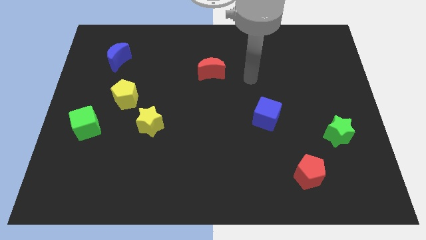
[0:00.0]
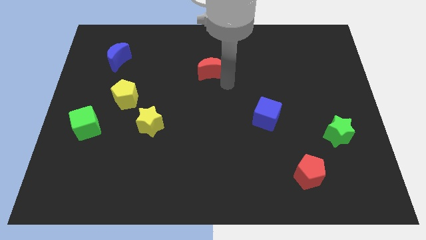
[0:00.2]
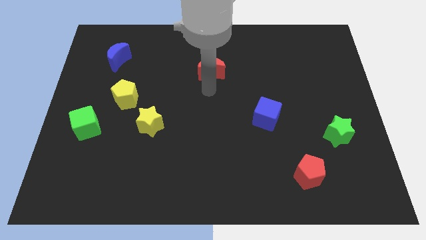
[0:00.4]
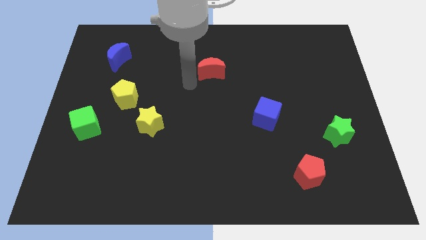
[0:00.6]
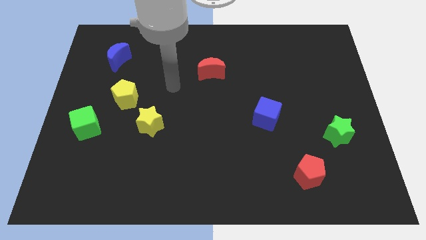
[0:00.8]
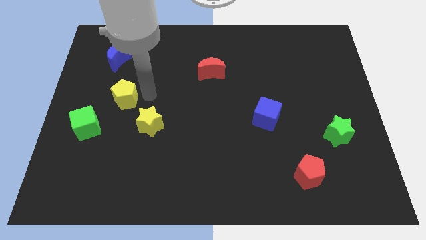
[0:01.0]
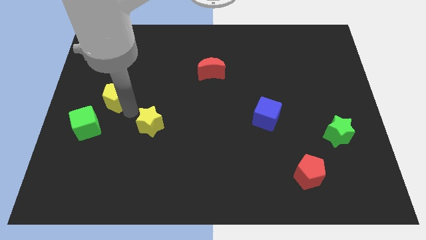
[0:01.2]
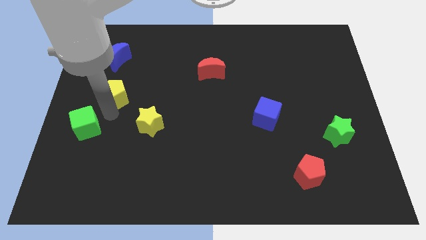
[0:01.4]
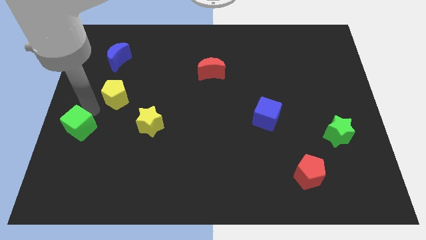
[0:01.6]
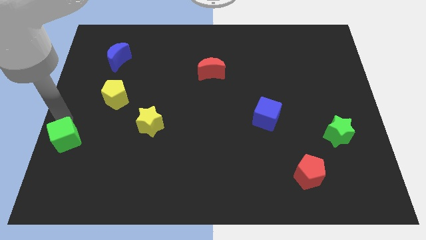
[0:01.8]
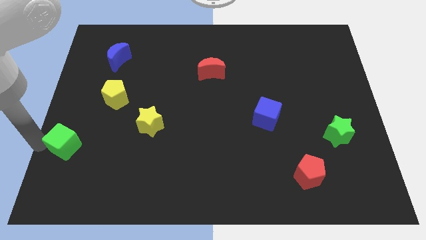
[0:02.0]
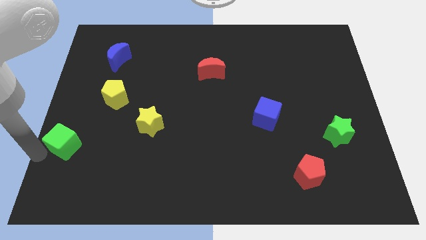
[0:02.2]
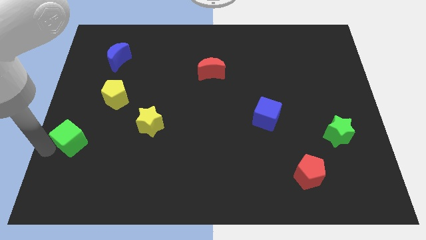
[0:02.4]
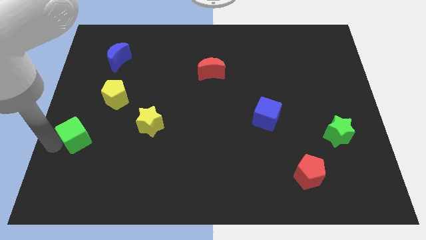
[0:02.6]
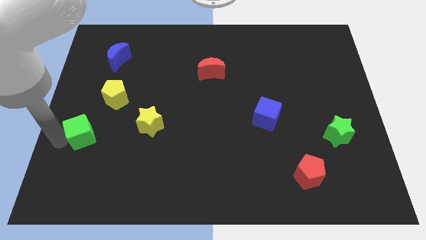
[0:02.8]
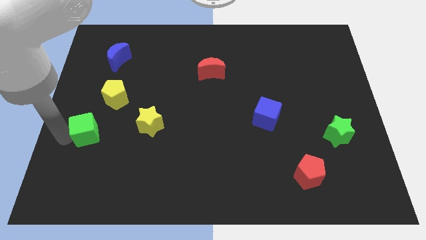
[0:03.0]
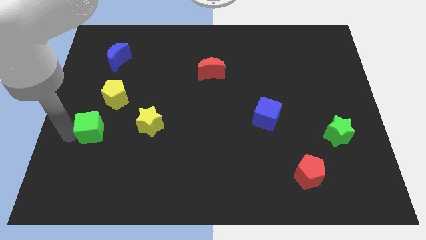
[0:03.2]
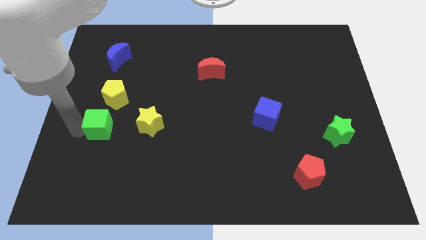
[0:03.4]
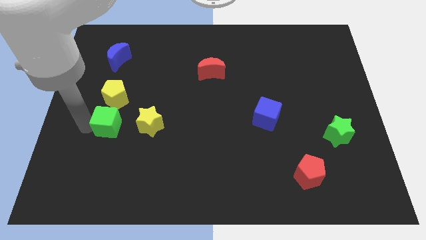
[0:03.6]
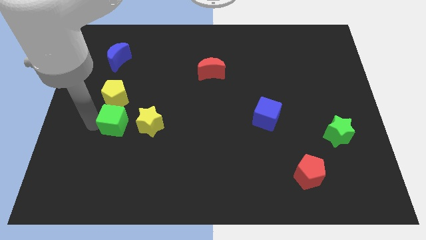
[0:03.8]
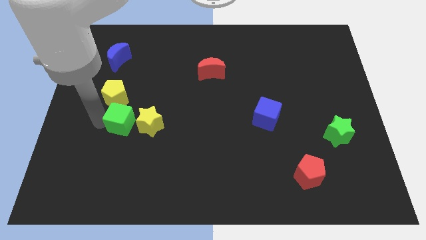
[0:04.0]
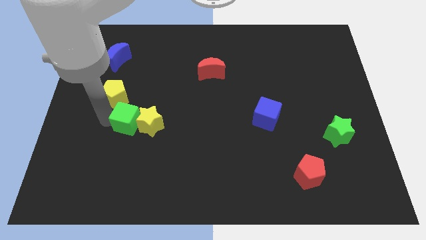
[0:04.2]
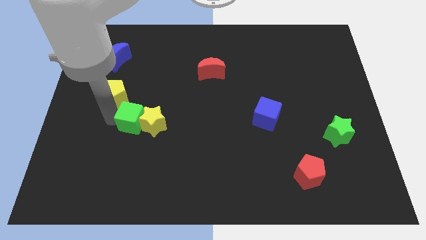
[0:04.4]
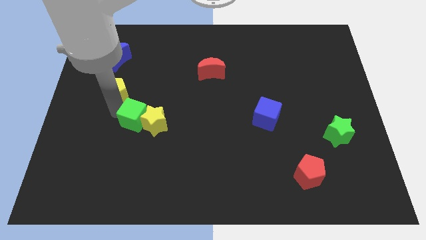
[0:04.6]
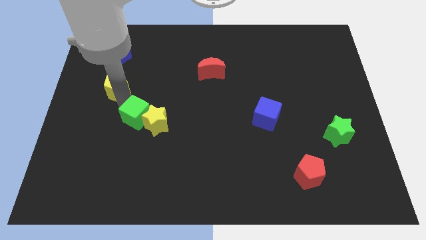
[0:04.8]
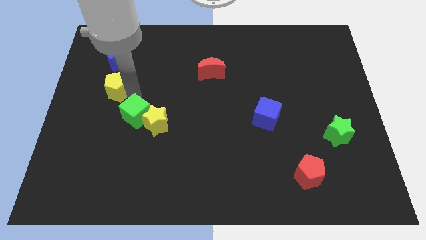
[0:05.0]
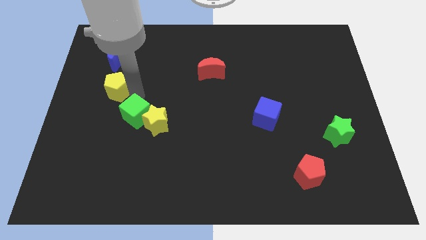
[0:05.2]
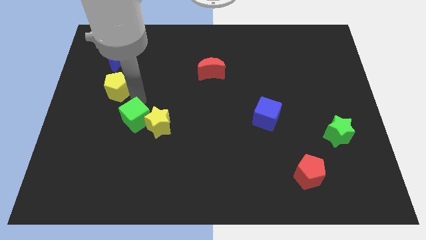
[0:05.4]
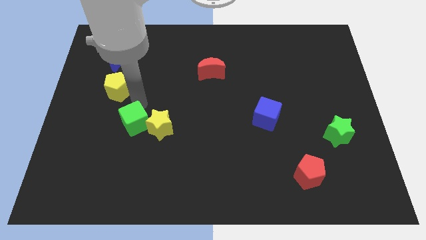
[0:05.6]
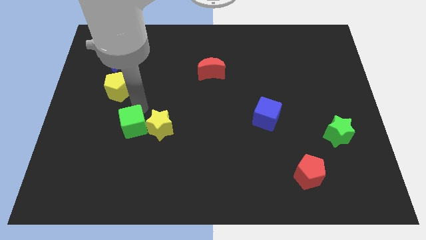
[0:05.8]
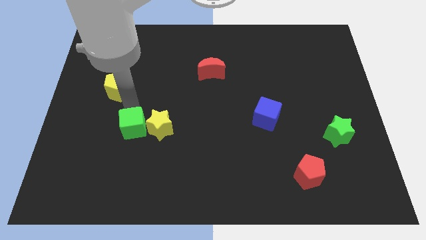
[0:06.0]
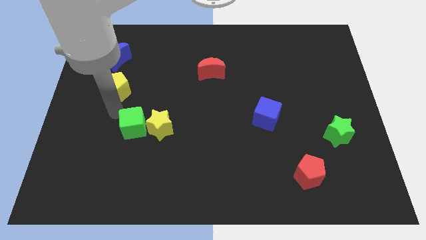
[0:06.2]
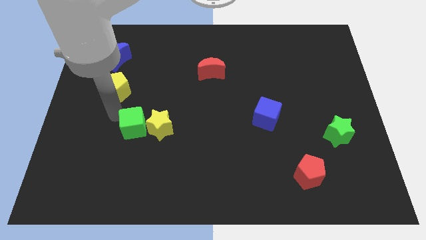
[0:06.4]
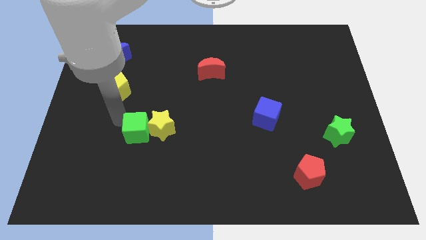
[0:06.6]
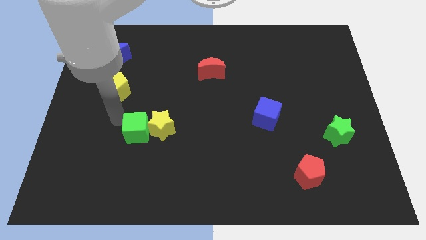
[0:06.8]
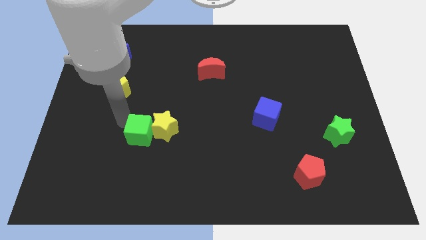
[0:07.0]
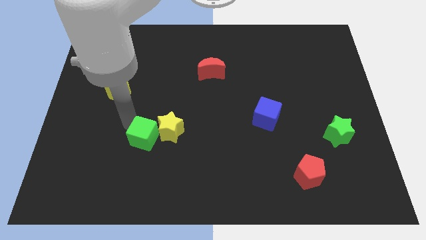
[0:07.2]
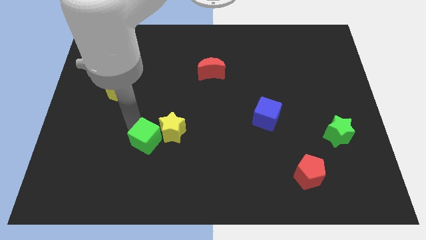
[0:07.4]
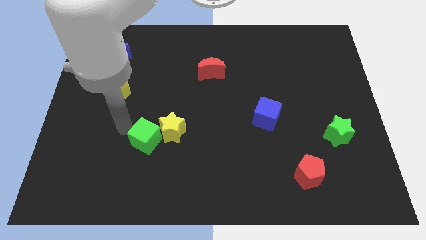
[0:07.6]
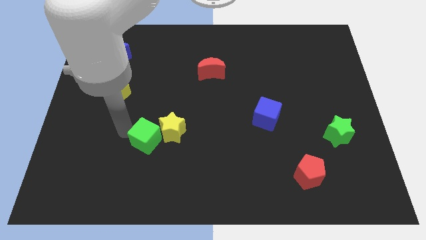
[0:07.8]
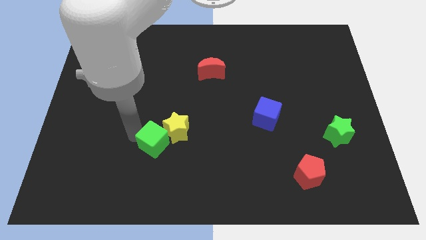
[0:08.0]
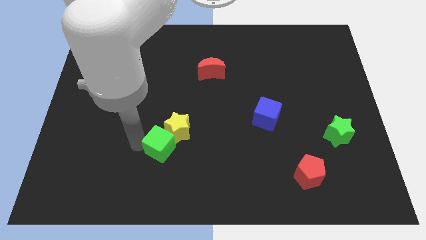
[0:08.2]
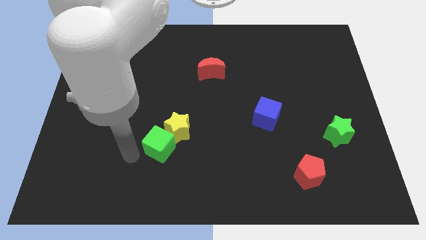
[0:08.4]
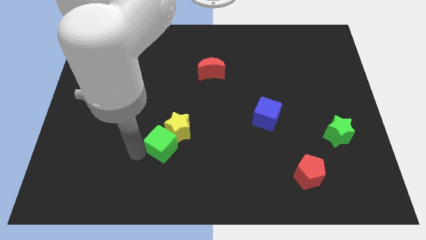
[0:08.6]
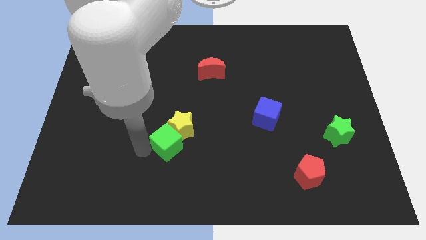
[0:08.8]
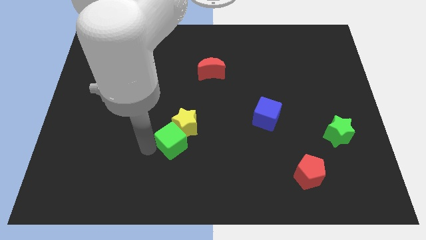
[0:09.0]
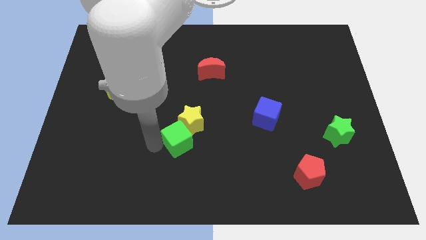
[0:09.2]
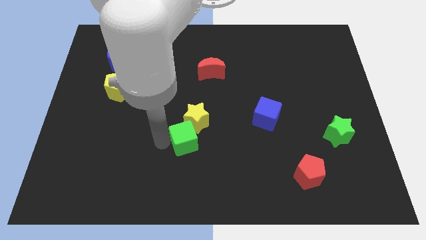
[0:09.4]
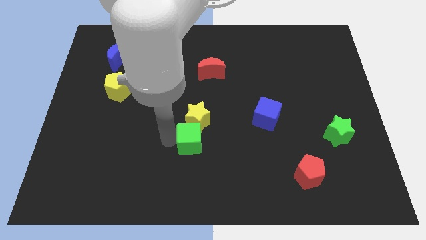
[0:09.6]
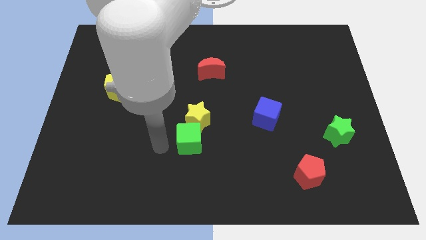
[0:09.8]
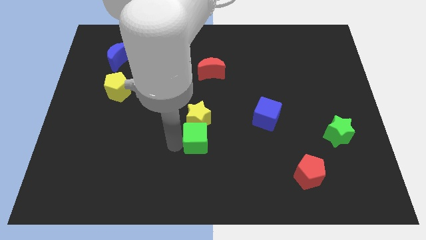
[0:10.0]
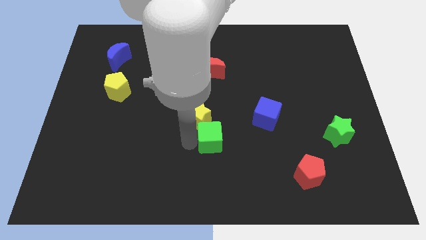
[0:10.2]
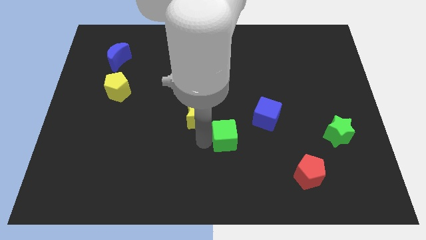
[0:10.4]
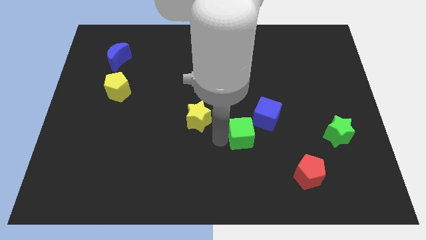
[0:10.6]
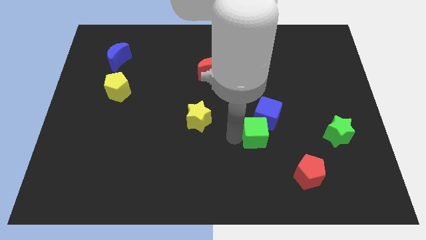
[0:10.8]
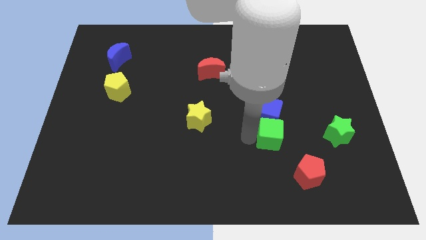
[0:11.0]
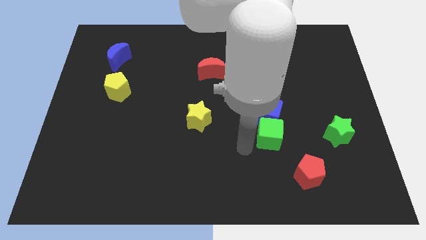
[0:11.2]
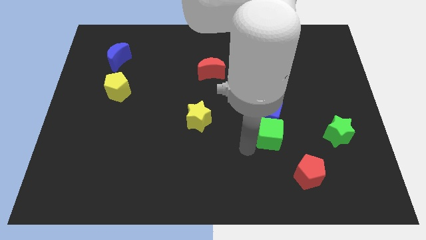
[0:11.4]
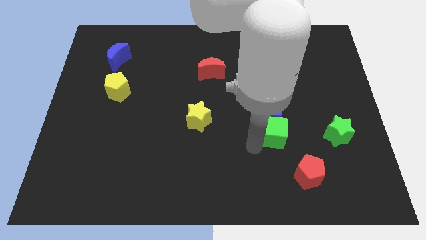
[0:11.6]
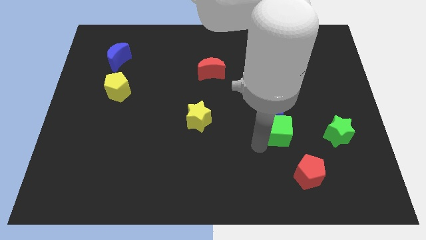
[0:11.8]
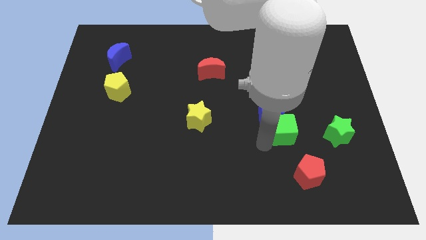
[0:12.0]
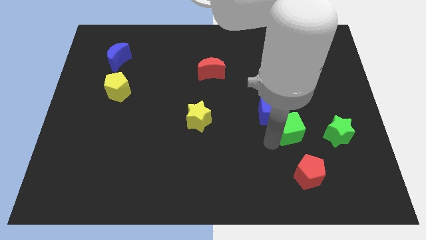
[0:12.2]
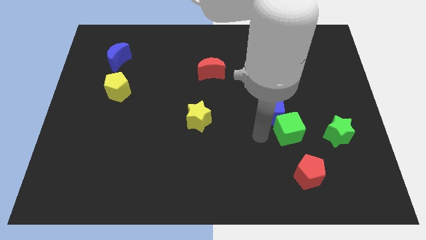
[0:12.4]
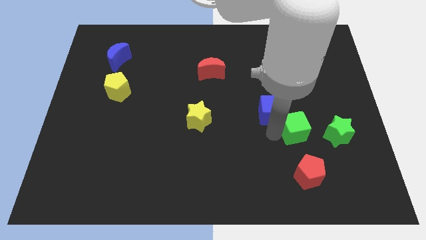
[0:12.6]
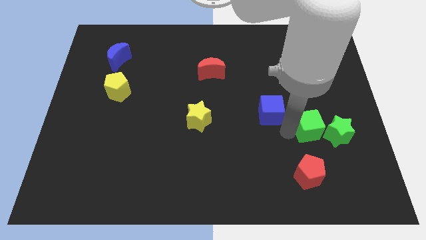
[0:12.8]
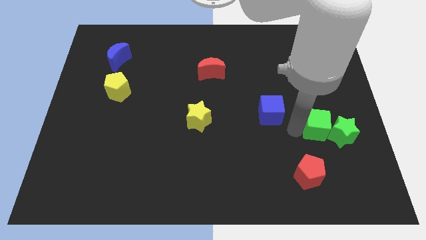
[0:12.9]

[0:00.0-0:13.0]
slide the green cube towards the green star
